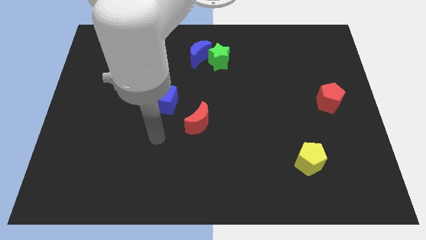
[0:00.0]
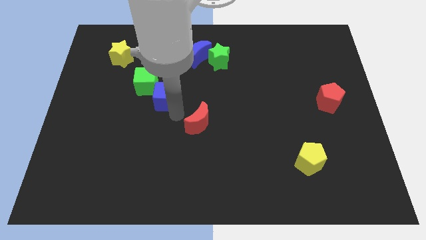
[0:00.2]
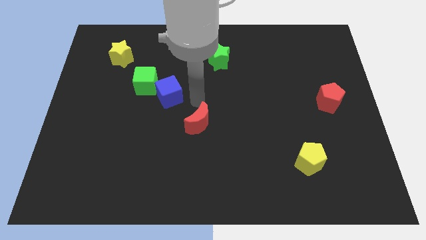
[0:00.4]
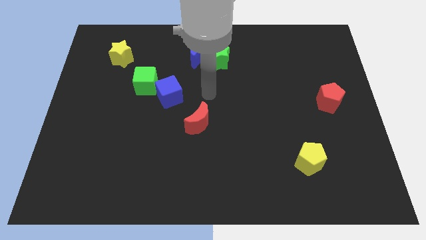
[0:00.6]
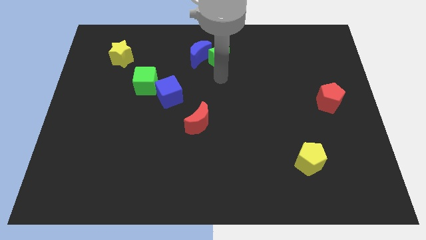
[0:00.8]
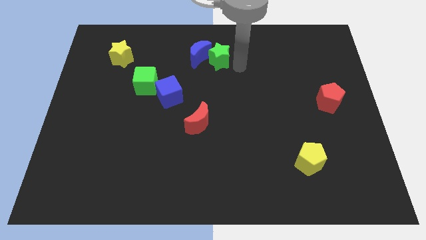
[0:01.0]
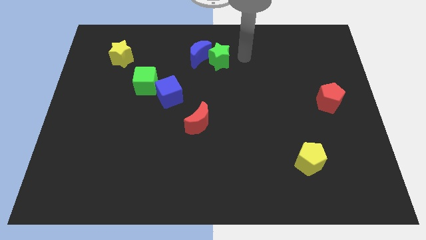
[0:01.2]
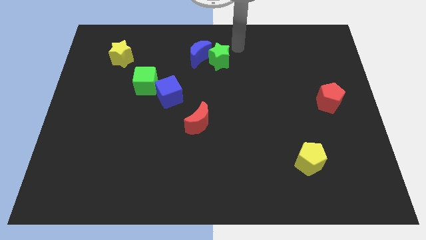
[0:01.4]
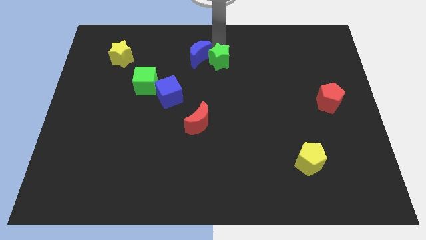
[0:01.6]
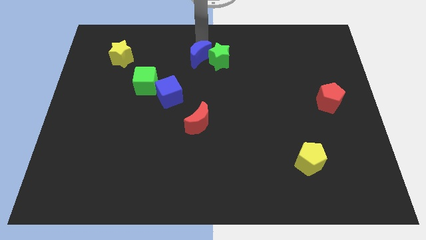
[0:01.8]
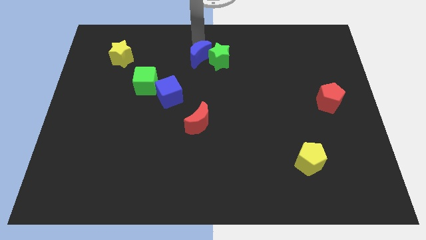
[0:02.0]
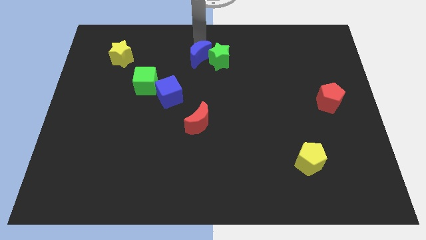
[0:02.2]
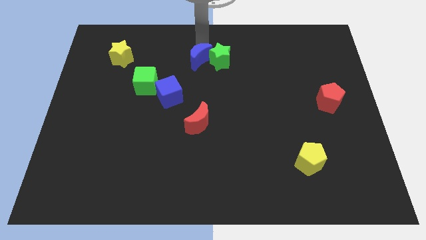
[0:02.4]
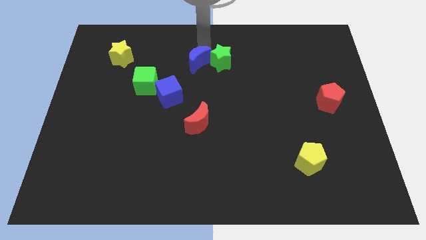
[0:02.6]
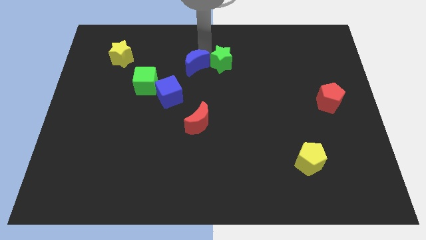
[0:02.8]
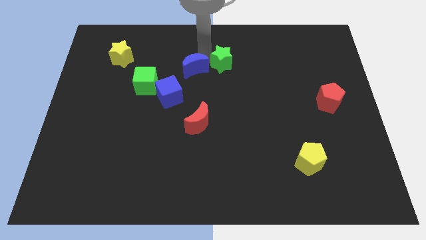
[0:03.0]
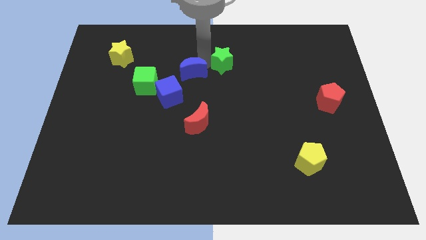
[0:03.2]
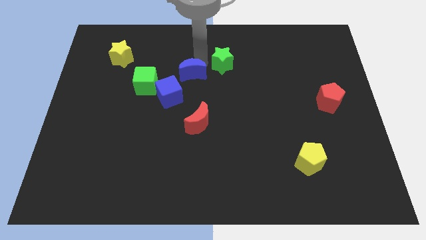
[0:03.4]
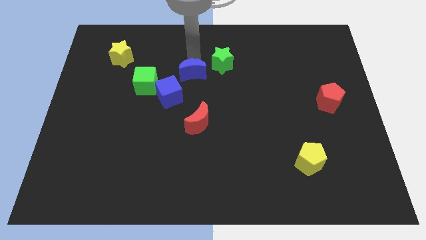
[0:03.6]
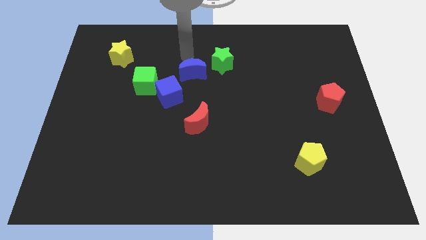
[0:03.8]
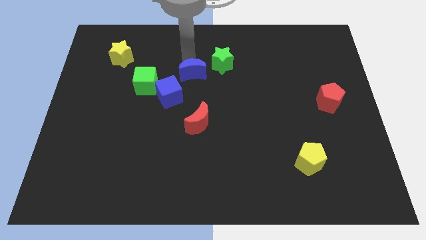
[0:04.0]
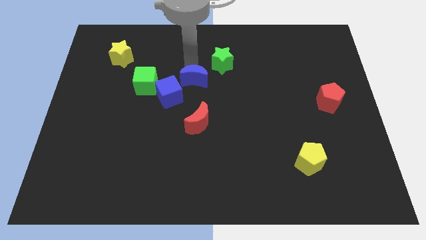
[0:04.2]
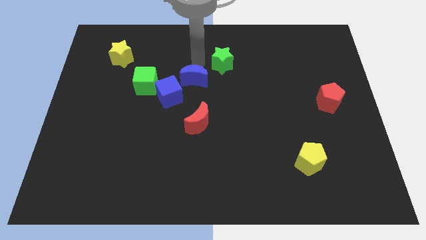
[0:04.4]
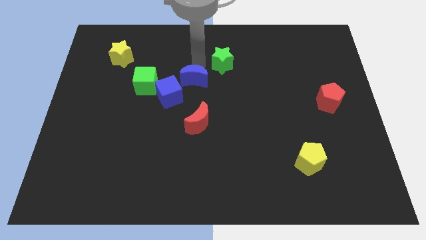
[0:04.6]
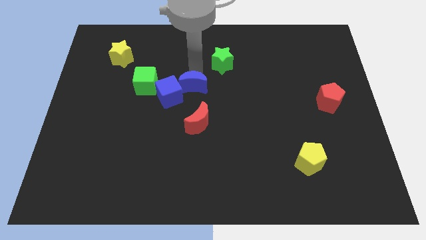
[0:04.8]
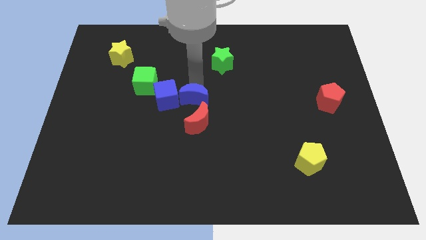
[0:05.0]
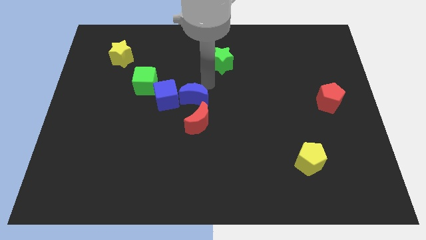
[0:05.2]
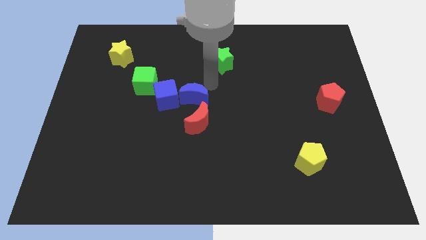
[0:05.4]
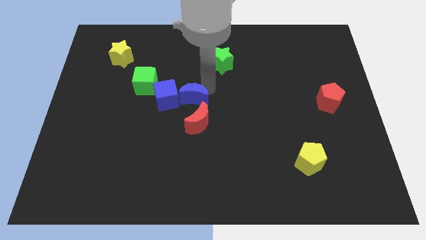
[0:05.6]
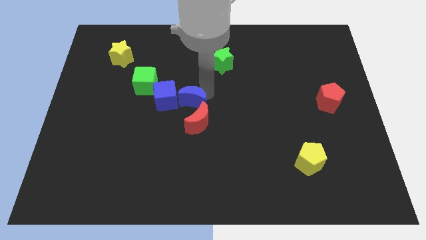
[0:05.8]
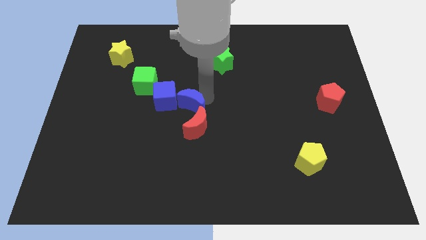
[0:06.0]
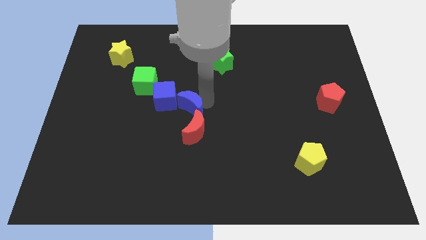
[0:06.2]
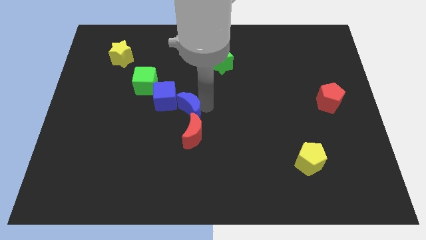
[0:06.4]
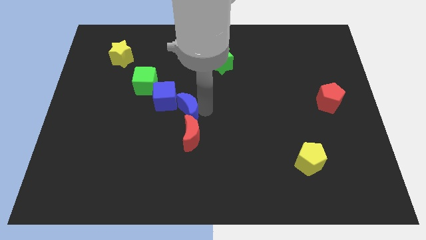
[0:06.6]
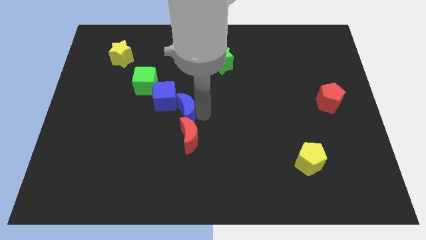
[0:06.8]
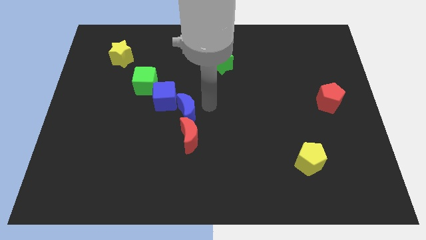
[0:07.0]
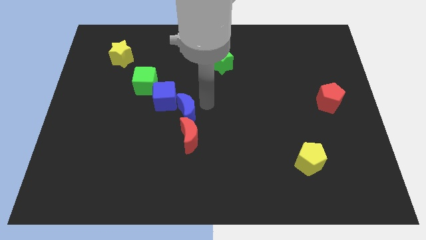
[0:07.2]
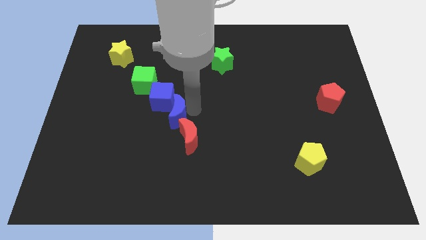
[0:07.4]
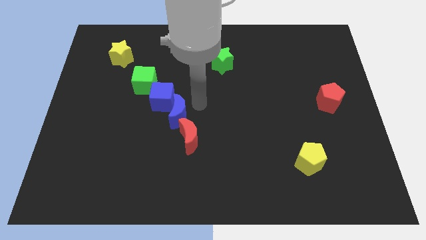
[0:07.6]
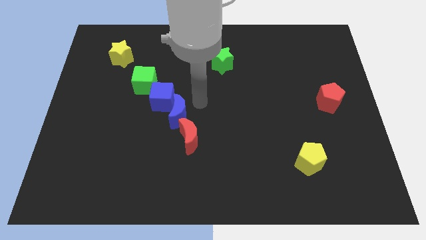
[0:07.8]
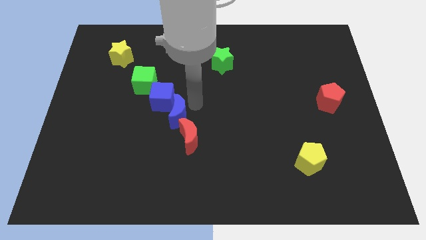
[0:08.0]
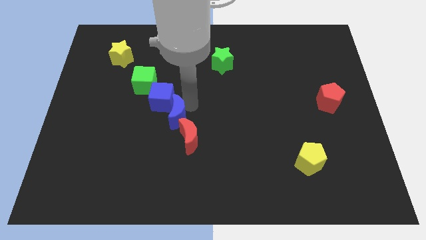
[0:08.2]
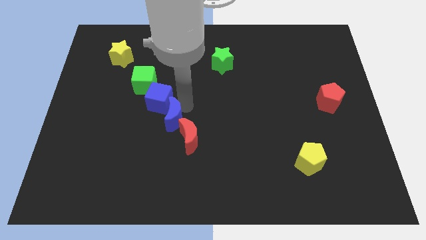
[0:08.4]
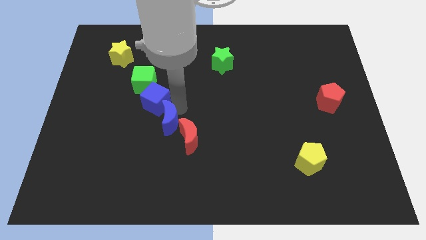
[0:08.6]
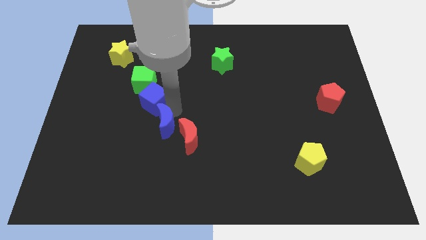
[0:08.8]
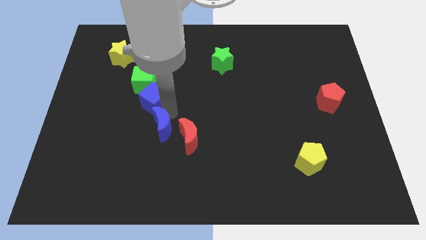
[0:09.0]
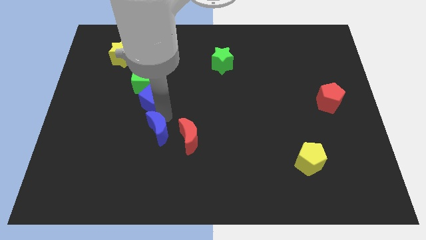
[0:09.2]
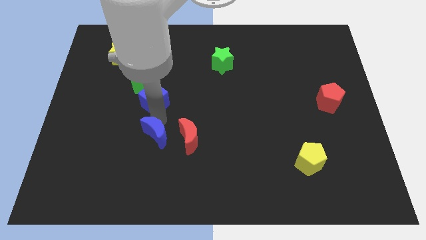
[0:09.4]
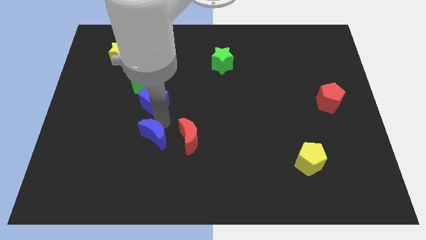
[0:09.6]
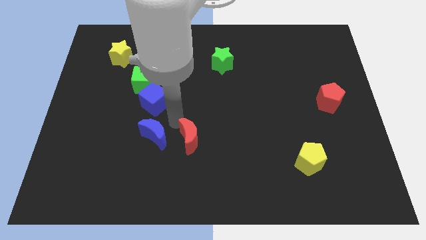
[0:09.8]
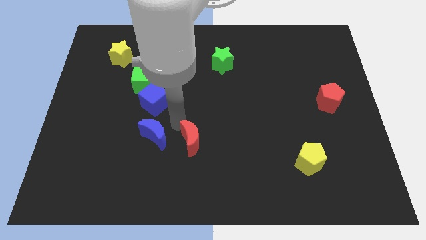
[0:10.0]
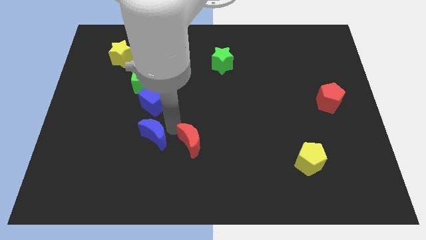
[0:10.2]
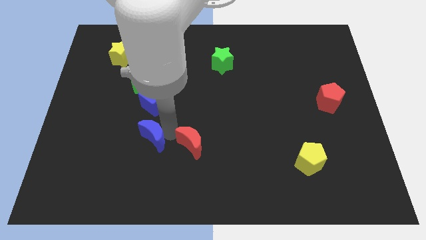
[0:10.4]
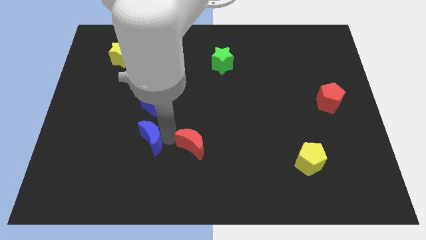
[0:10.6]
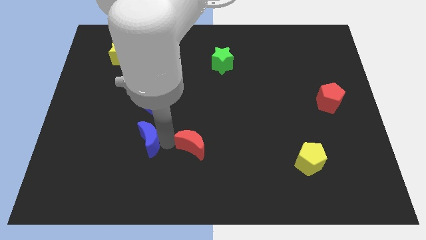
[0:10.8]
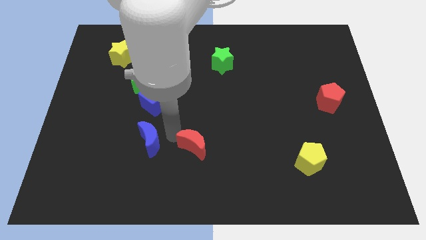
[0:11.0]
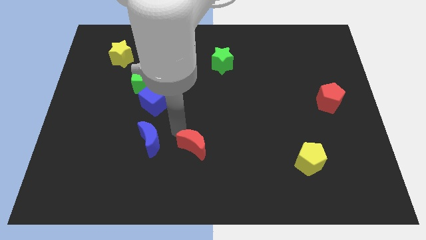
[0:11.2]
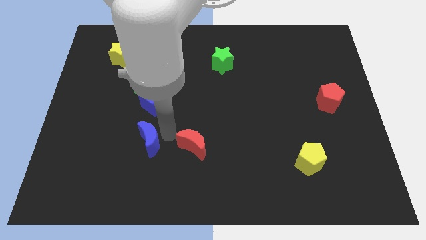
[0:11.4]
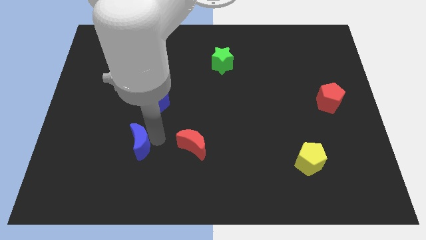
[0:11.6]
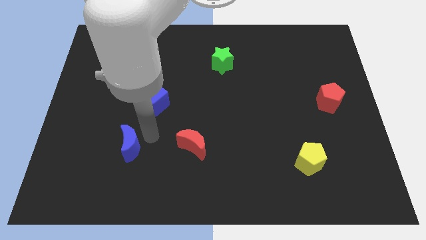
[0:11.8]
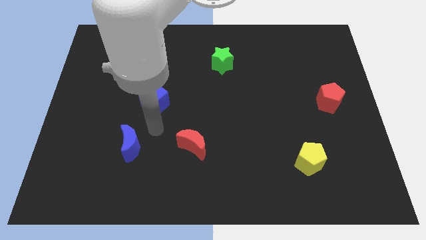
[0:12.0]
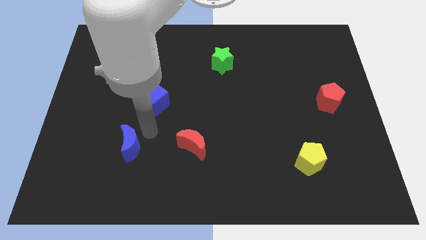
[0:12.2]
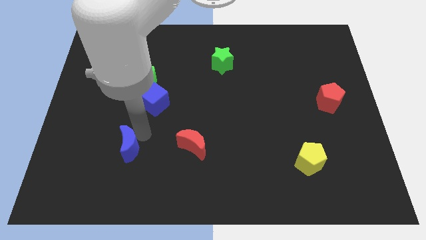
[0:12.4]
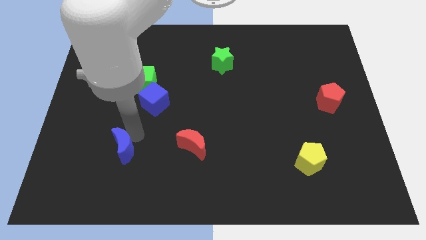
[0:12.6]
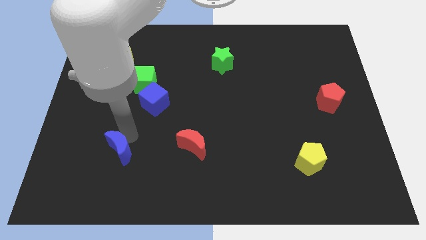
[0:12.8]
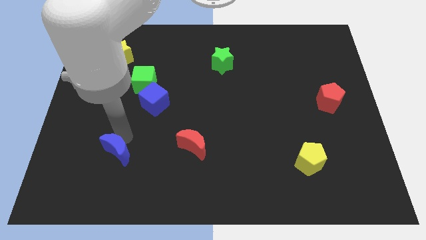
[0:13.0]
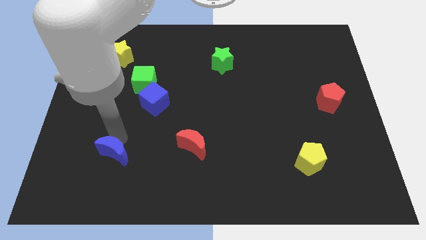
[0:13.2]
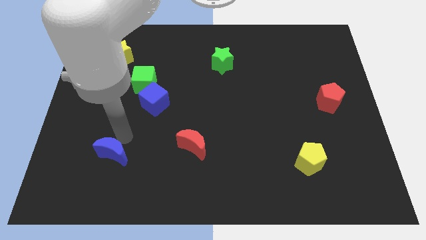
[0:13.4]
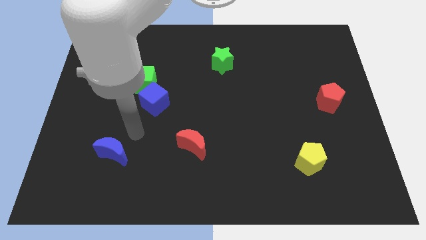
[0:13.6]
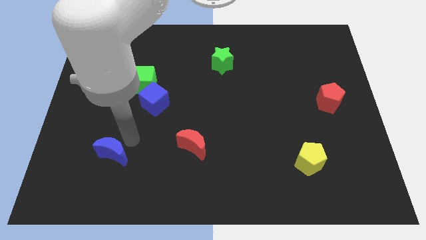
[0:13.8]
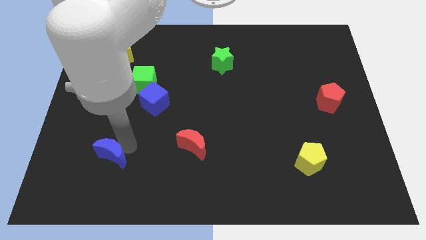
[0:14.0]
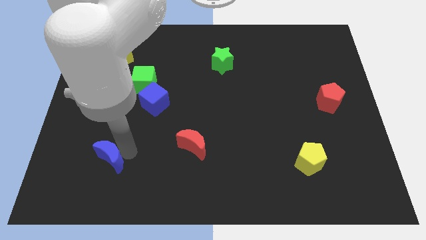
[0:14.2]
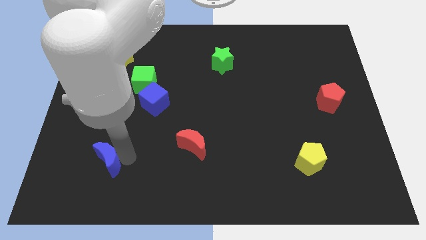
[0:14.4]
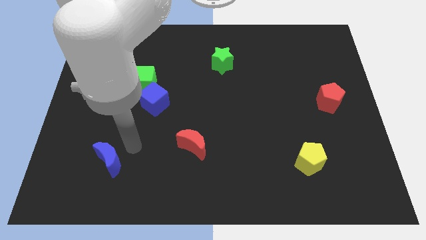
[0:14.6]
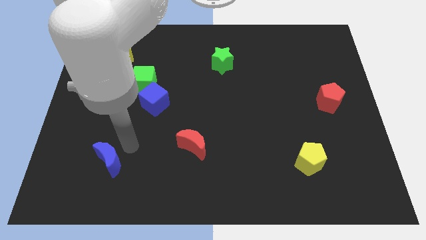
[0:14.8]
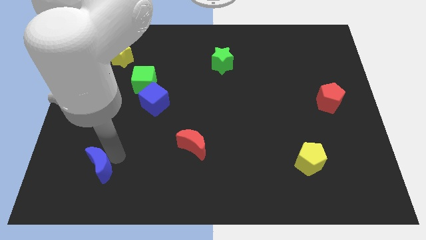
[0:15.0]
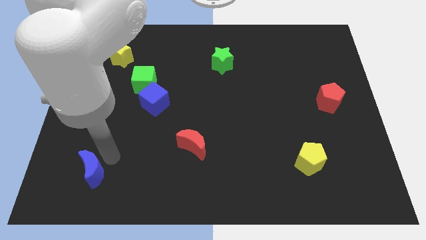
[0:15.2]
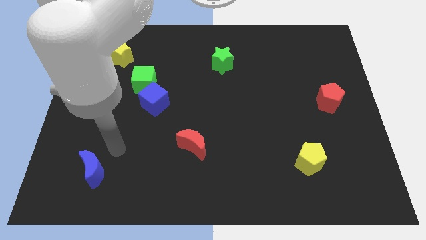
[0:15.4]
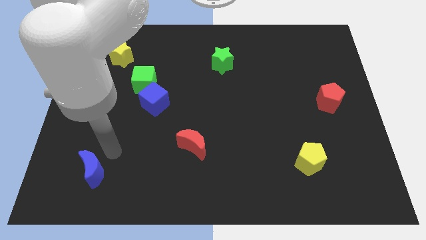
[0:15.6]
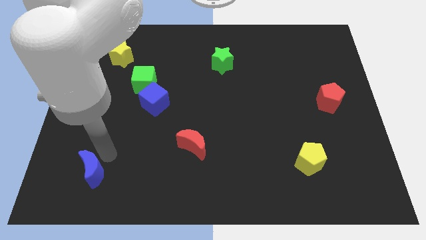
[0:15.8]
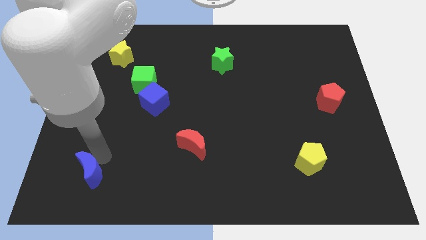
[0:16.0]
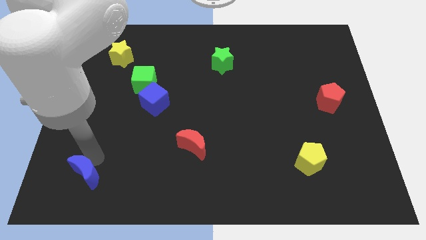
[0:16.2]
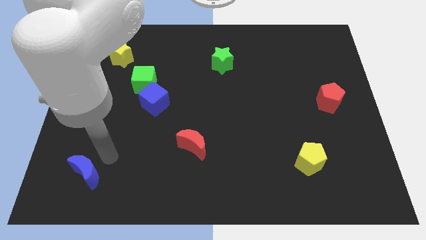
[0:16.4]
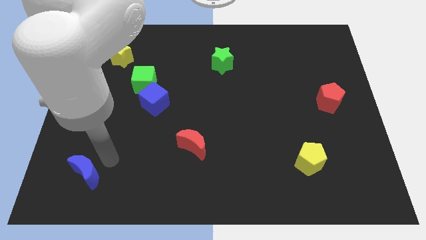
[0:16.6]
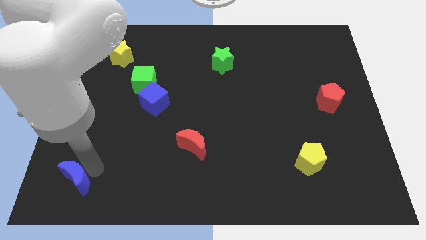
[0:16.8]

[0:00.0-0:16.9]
push the blue moon to the bottom left corner
